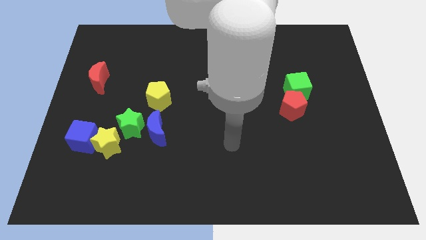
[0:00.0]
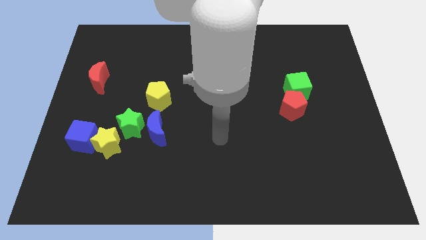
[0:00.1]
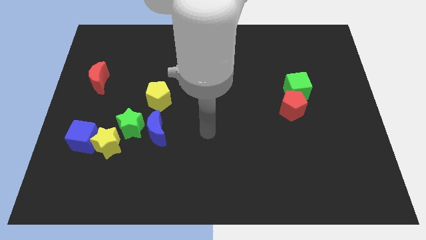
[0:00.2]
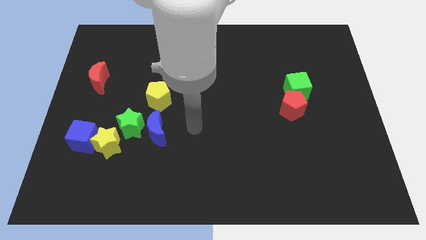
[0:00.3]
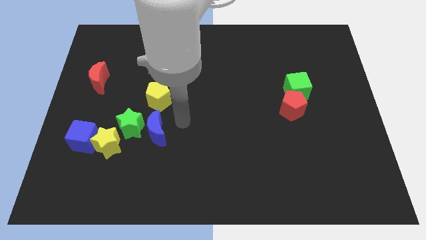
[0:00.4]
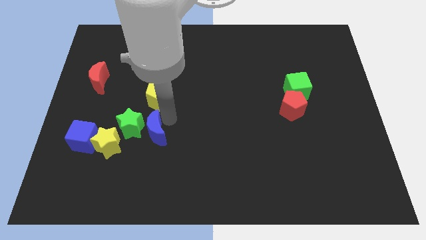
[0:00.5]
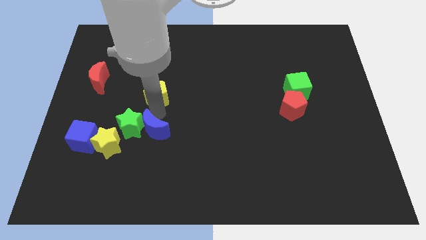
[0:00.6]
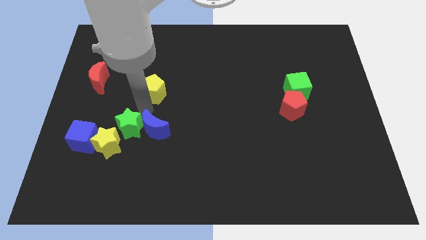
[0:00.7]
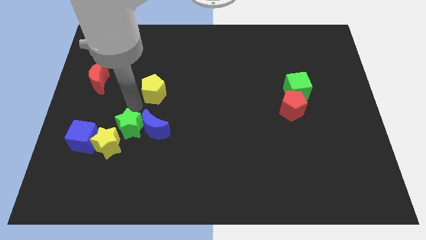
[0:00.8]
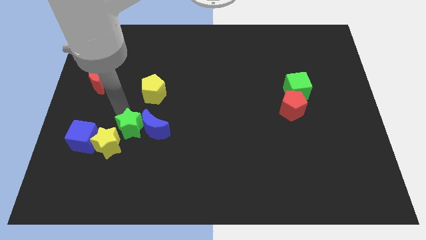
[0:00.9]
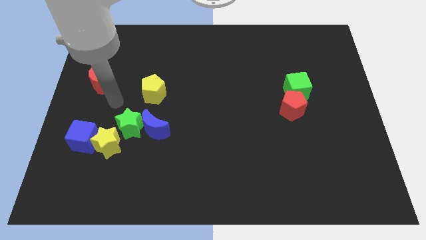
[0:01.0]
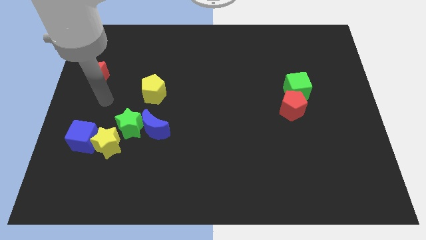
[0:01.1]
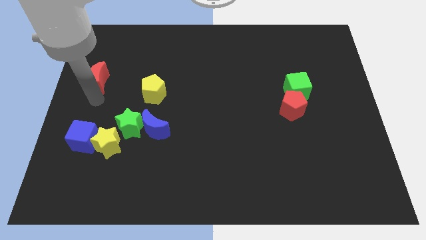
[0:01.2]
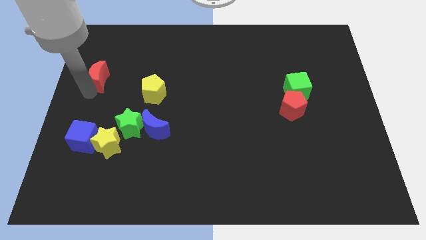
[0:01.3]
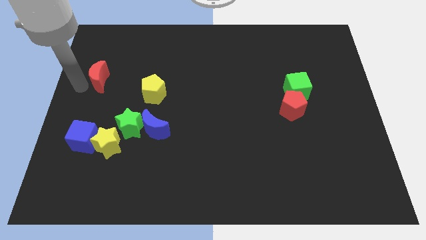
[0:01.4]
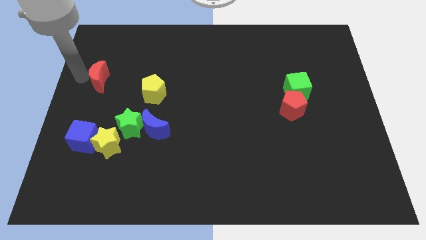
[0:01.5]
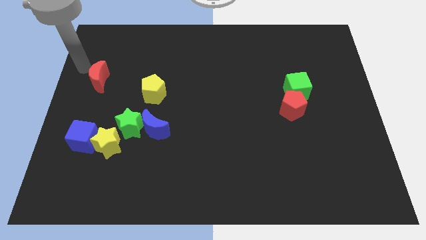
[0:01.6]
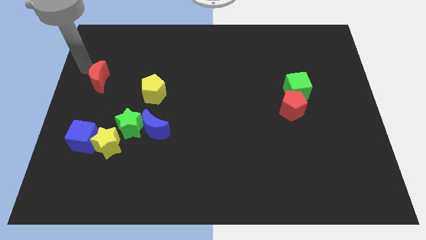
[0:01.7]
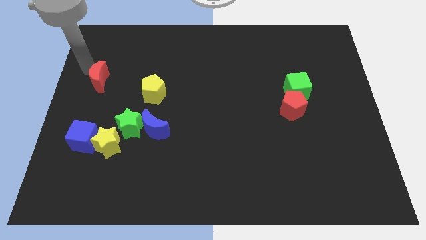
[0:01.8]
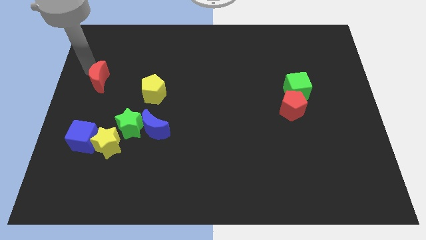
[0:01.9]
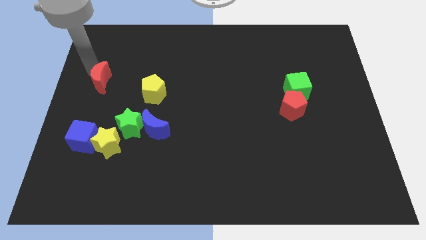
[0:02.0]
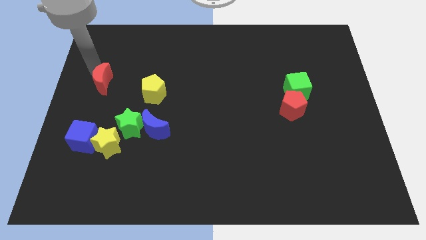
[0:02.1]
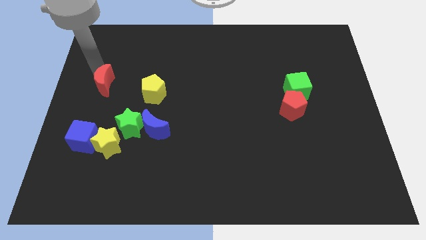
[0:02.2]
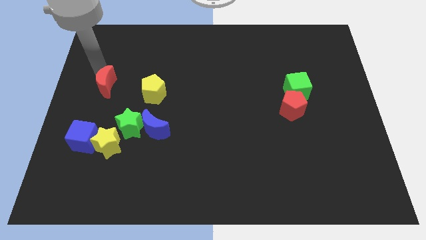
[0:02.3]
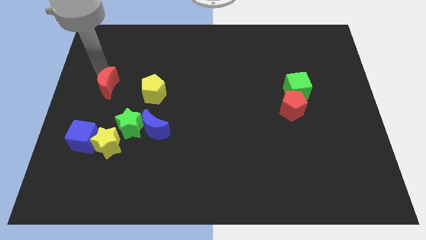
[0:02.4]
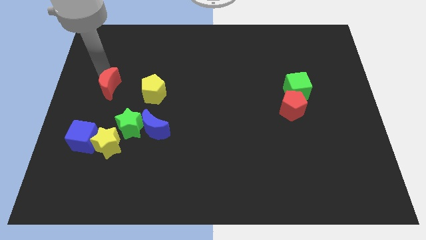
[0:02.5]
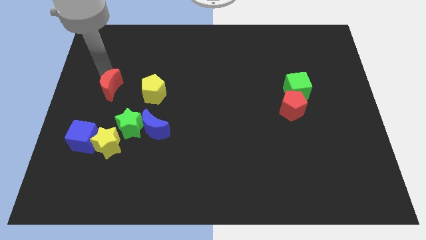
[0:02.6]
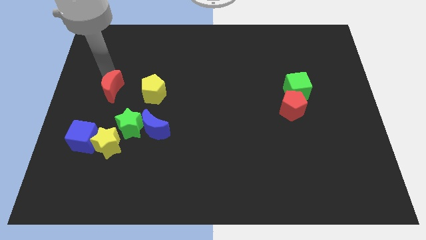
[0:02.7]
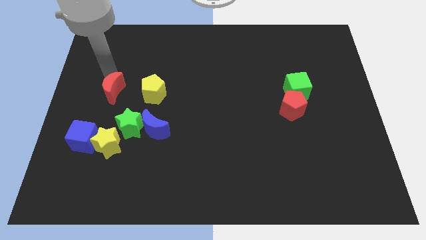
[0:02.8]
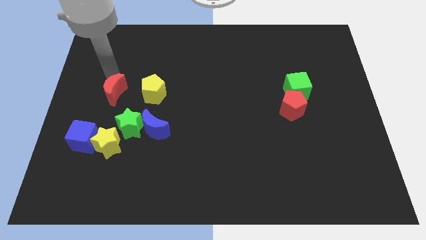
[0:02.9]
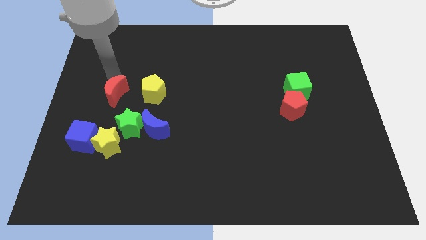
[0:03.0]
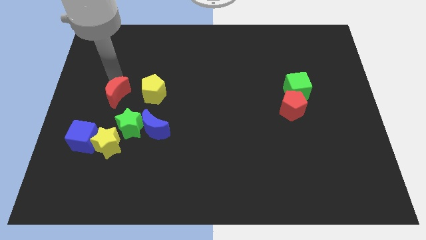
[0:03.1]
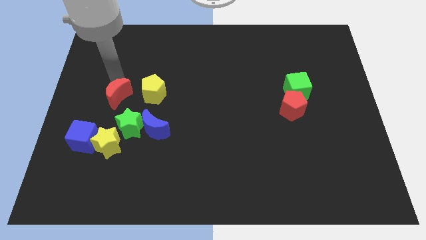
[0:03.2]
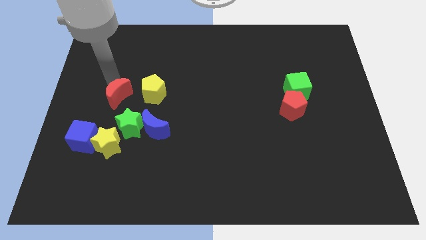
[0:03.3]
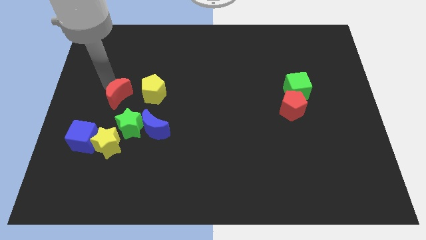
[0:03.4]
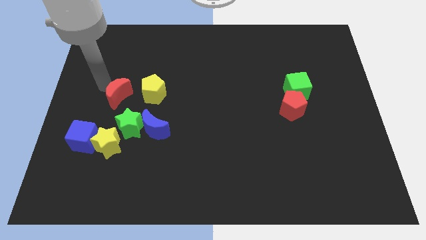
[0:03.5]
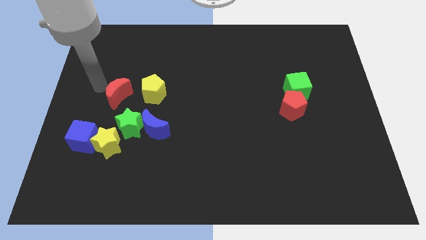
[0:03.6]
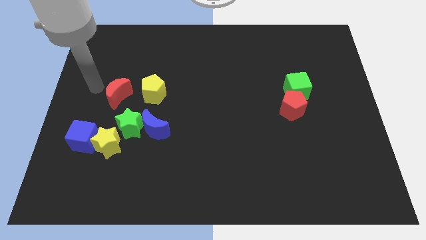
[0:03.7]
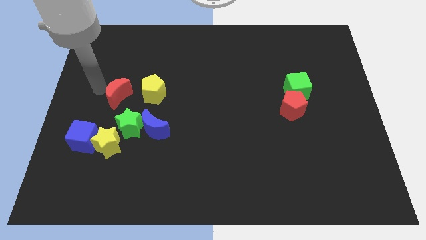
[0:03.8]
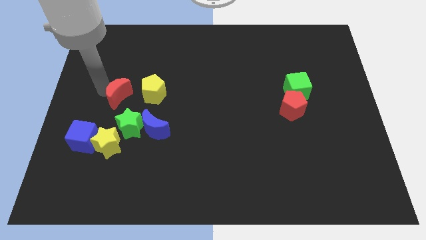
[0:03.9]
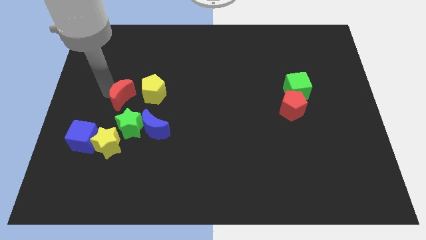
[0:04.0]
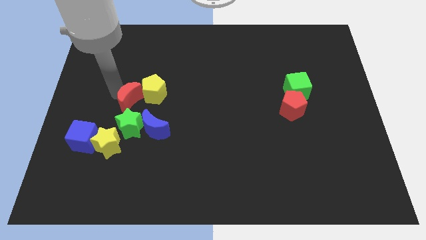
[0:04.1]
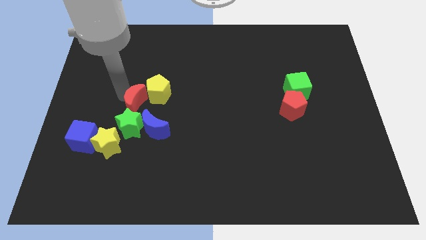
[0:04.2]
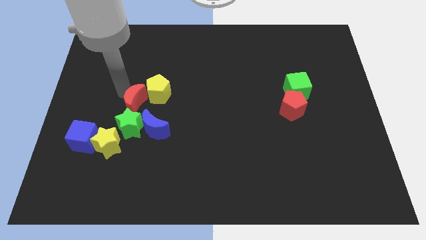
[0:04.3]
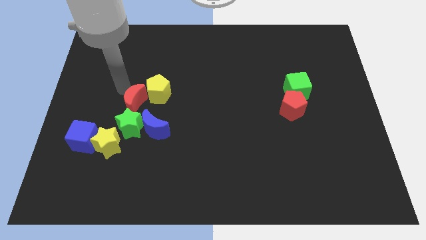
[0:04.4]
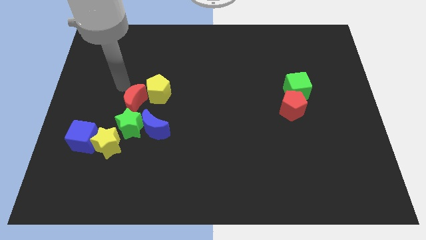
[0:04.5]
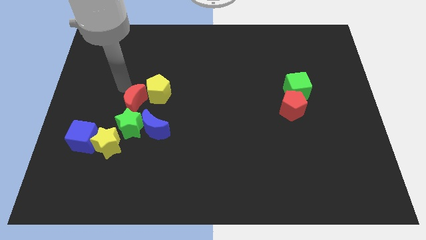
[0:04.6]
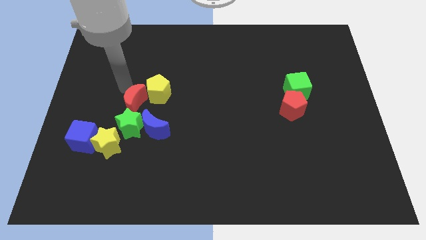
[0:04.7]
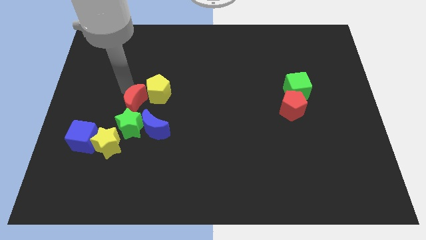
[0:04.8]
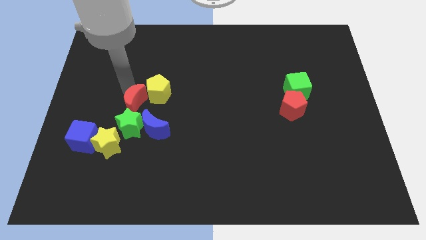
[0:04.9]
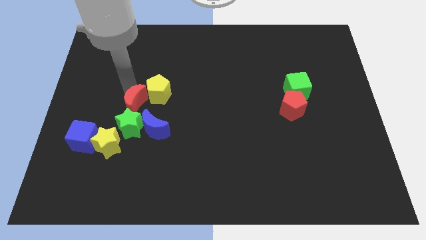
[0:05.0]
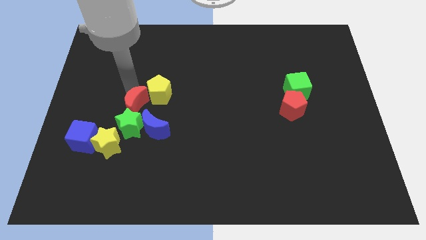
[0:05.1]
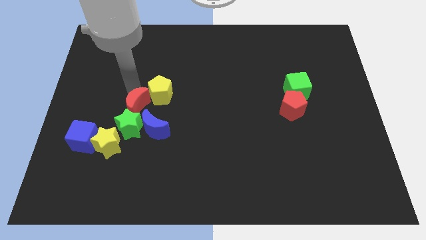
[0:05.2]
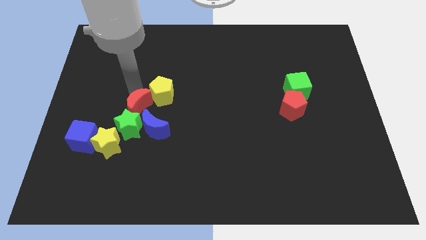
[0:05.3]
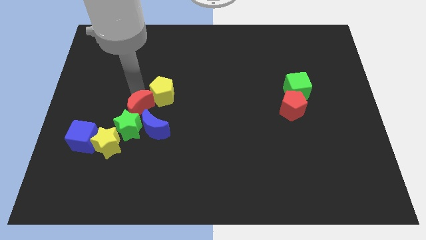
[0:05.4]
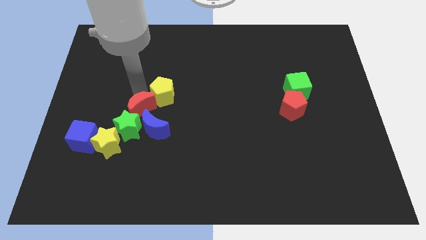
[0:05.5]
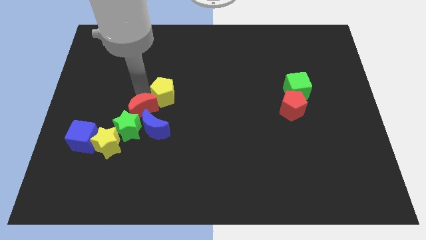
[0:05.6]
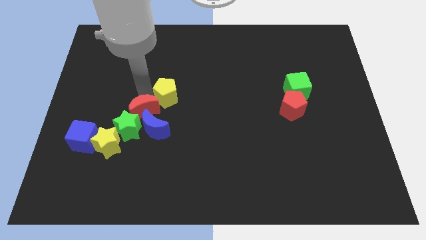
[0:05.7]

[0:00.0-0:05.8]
push the red moon close to the blue moon

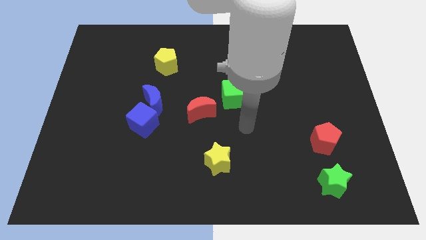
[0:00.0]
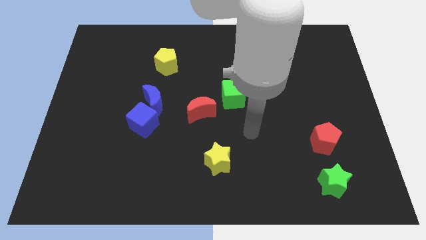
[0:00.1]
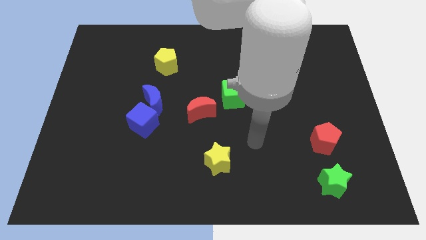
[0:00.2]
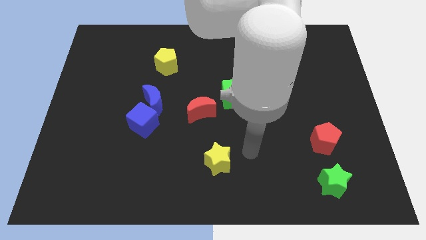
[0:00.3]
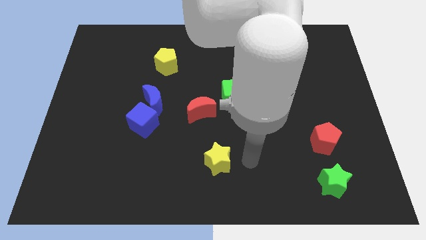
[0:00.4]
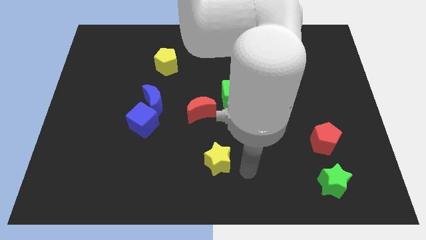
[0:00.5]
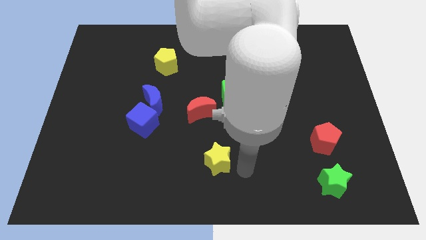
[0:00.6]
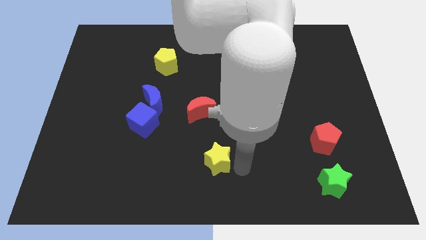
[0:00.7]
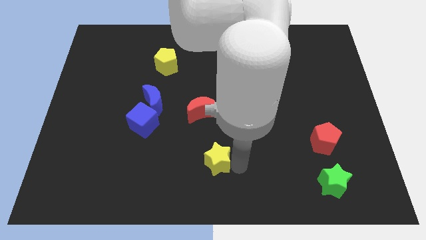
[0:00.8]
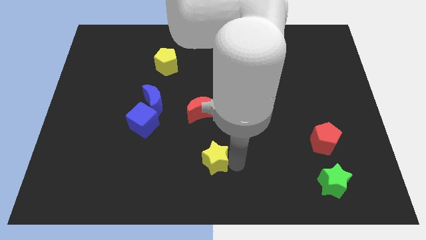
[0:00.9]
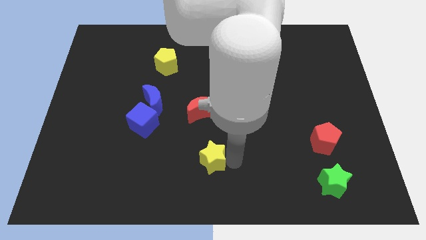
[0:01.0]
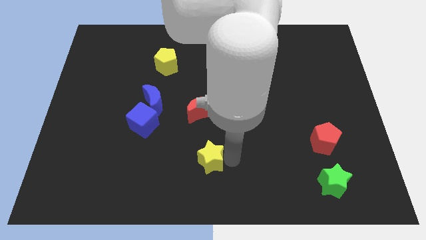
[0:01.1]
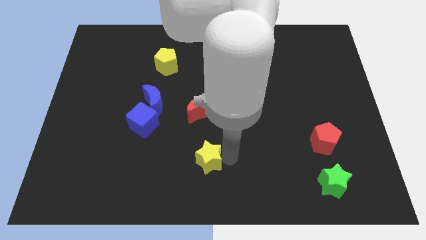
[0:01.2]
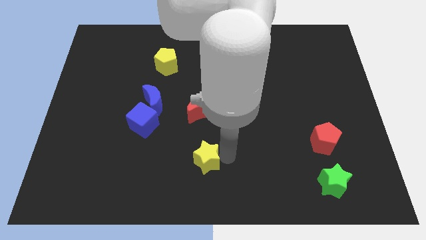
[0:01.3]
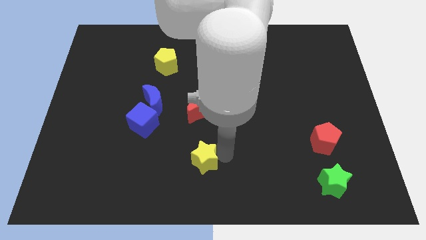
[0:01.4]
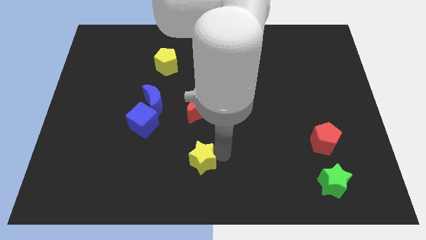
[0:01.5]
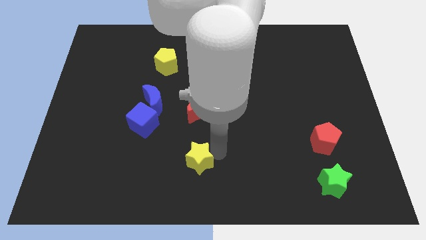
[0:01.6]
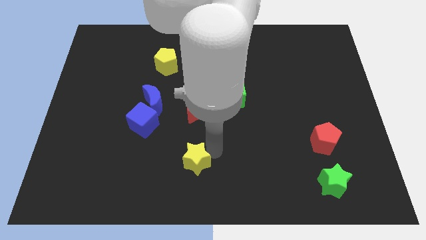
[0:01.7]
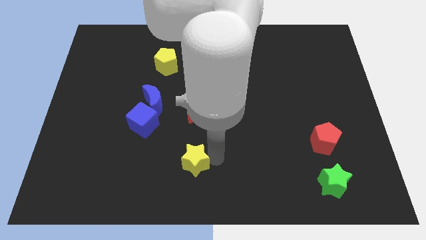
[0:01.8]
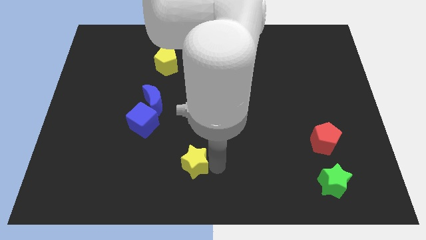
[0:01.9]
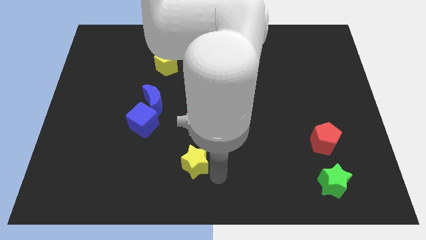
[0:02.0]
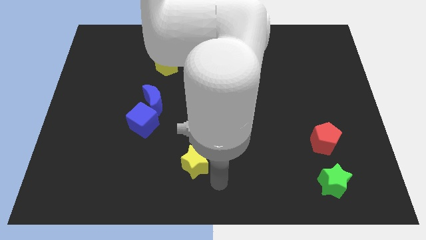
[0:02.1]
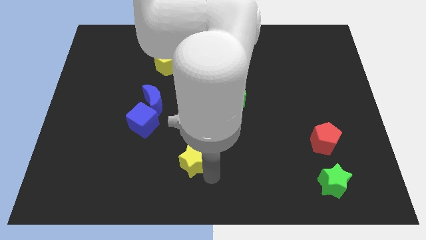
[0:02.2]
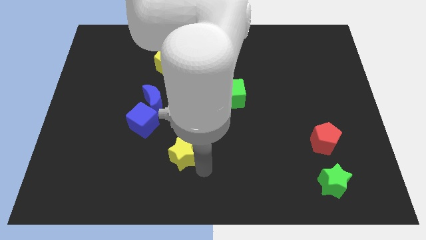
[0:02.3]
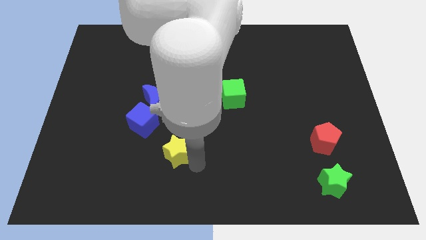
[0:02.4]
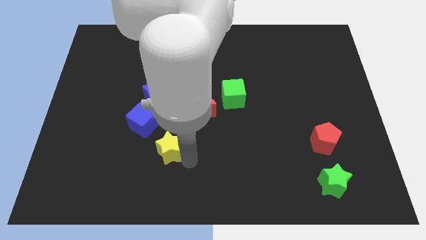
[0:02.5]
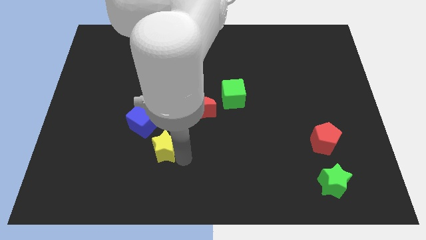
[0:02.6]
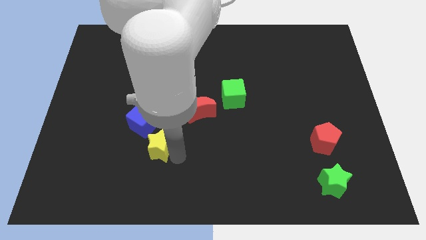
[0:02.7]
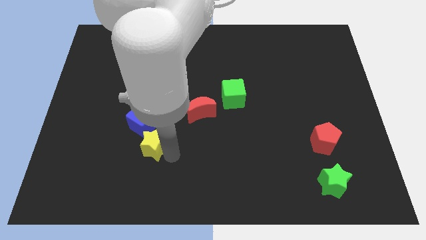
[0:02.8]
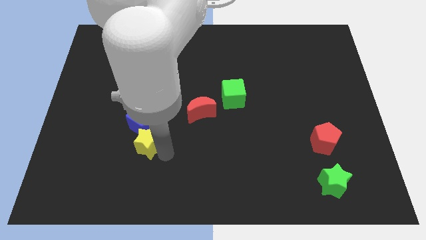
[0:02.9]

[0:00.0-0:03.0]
move the yellow star next to the blue cube
